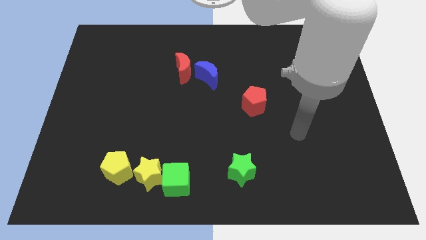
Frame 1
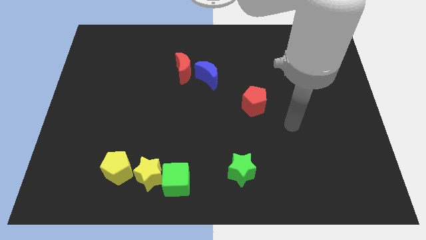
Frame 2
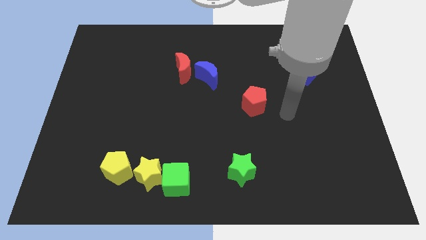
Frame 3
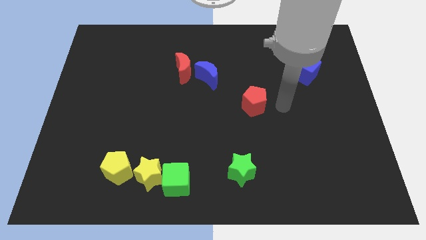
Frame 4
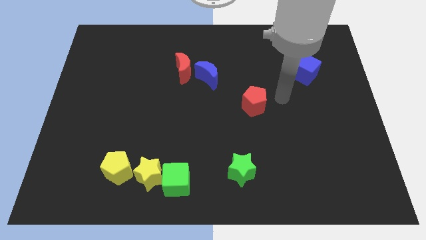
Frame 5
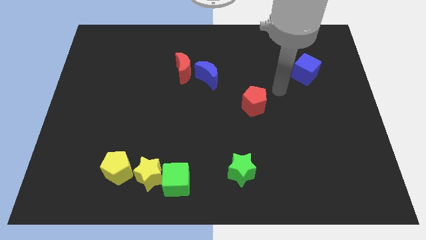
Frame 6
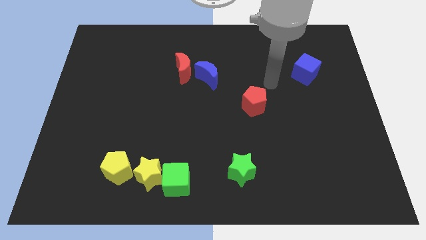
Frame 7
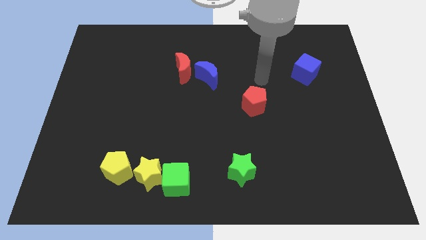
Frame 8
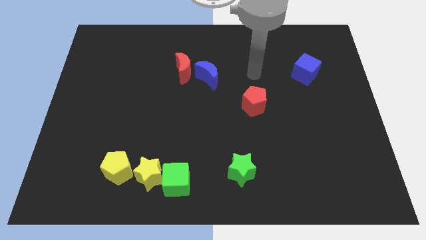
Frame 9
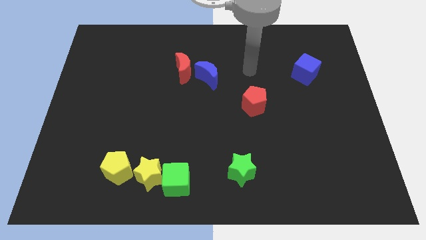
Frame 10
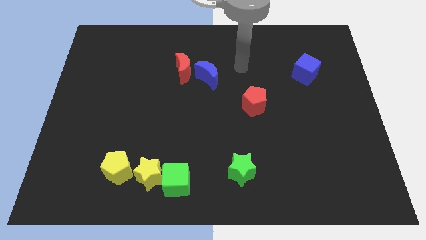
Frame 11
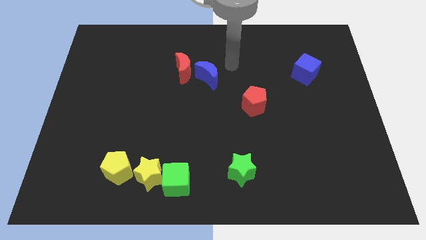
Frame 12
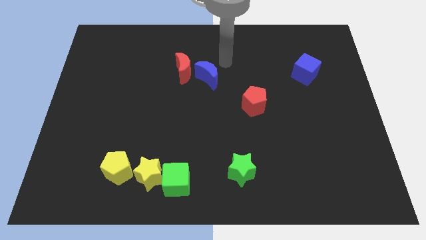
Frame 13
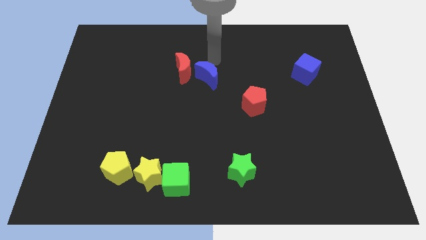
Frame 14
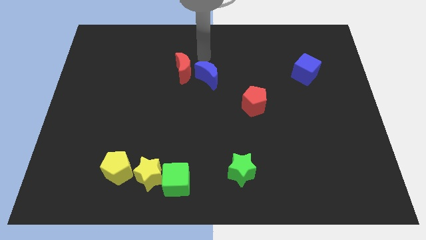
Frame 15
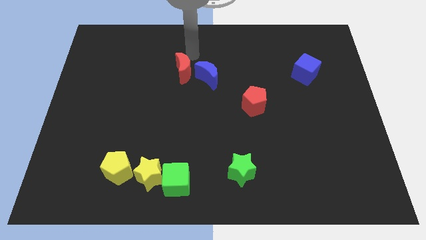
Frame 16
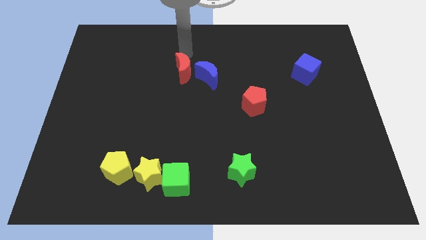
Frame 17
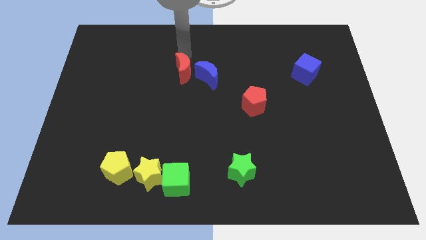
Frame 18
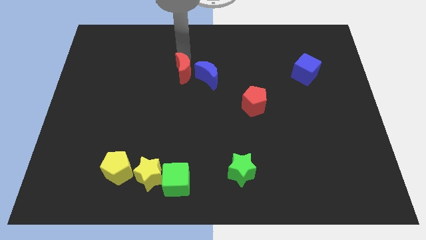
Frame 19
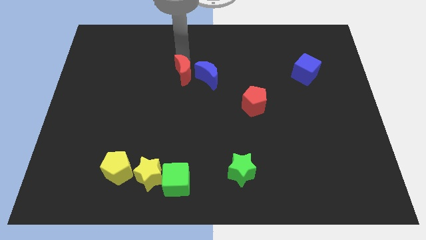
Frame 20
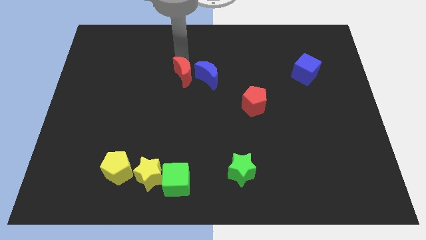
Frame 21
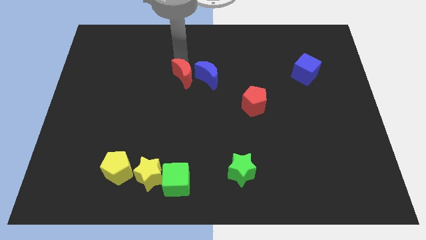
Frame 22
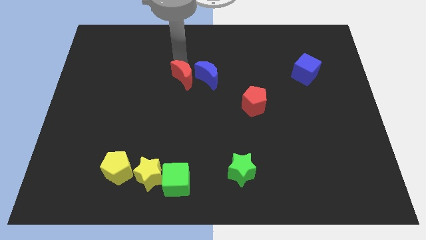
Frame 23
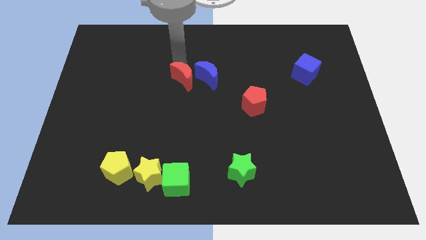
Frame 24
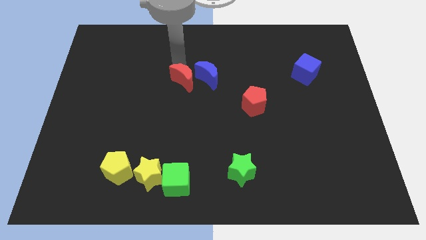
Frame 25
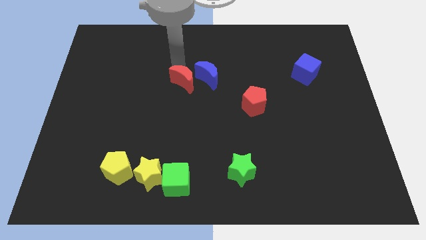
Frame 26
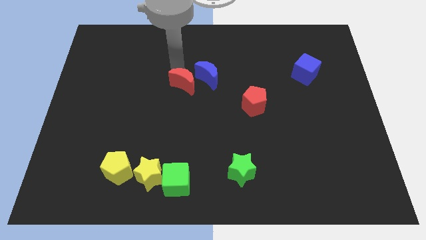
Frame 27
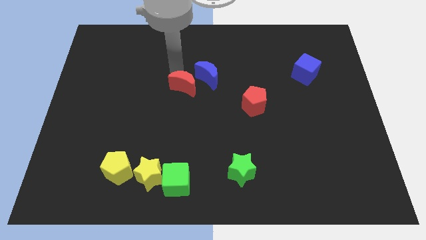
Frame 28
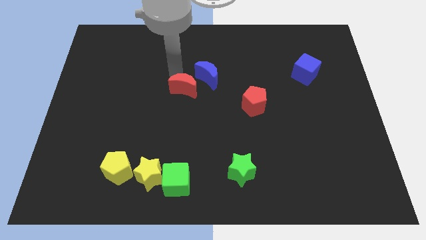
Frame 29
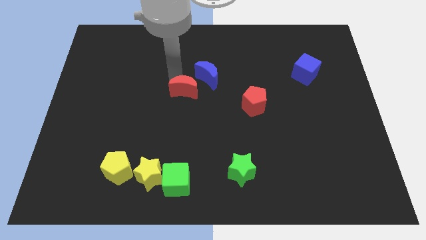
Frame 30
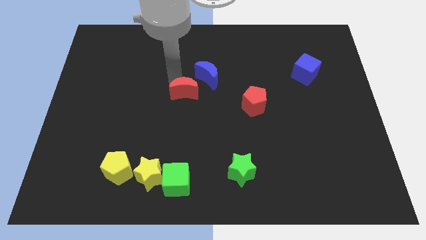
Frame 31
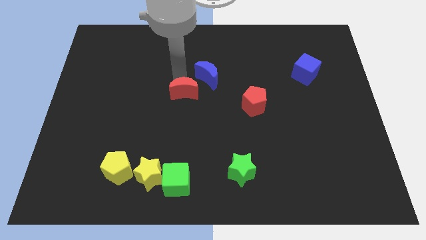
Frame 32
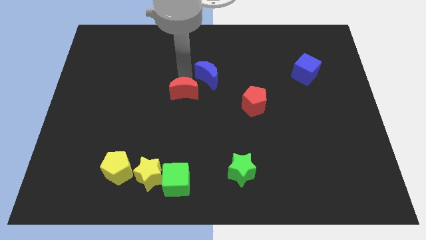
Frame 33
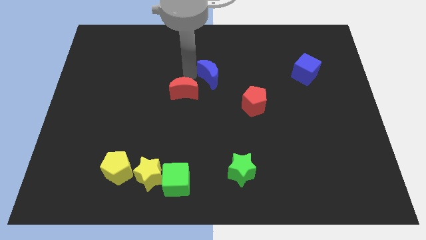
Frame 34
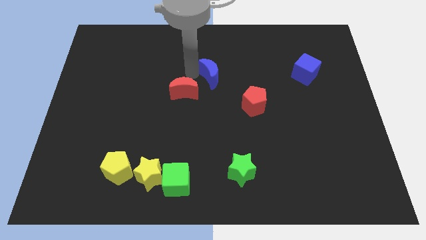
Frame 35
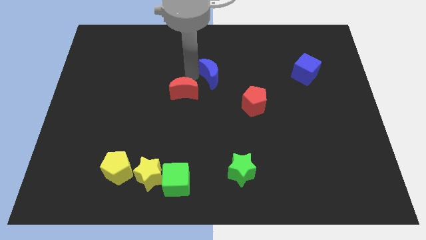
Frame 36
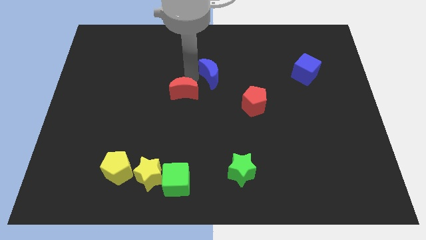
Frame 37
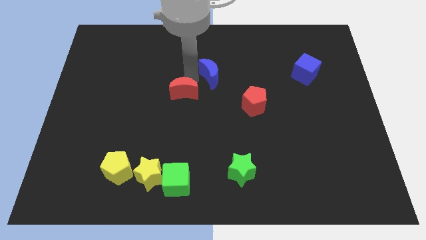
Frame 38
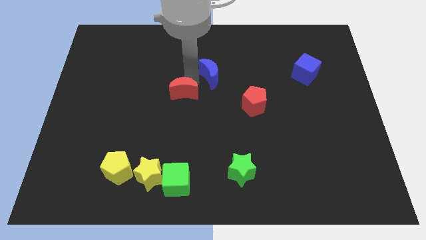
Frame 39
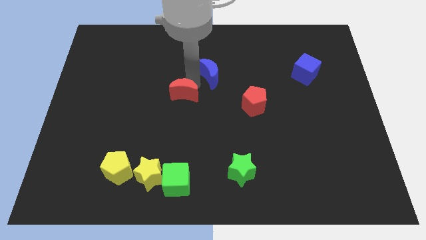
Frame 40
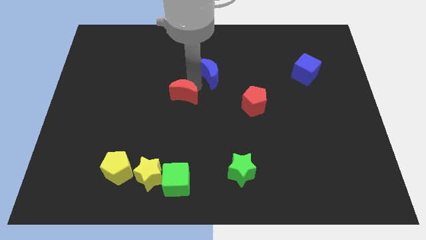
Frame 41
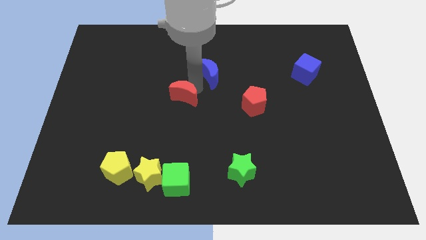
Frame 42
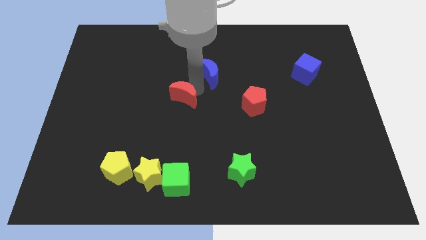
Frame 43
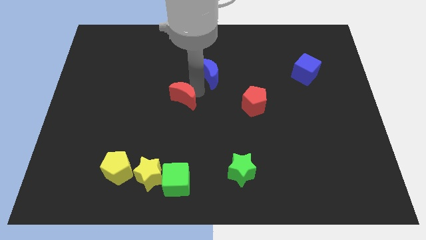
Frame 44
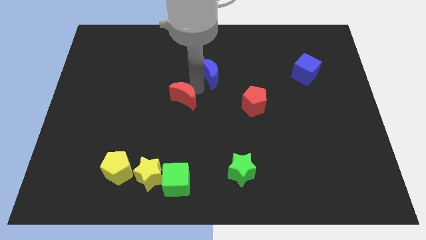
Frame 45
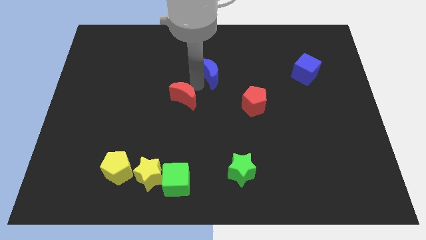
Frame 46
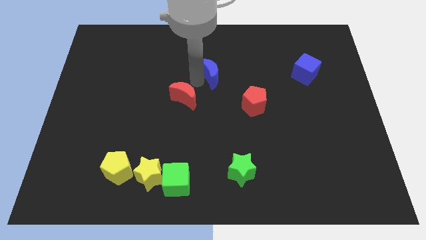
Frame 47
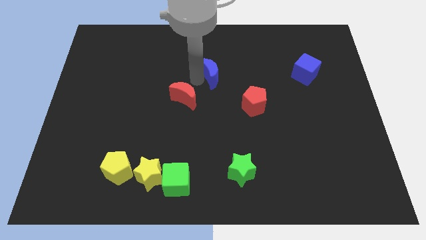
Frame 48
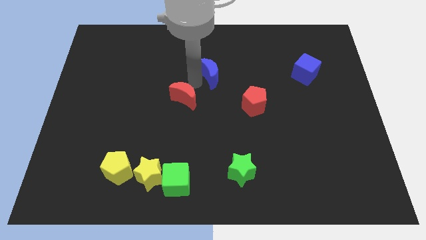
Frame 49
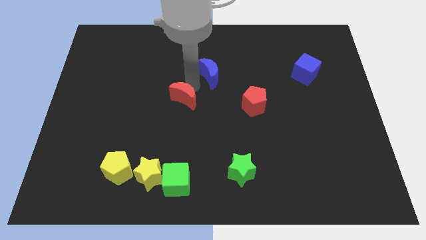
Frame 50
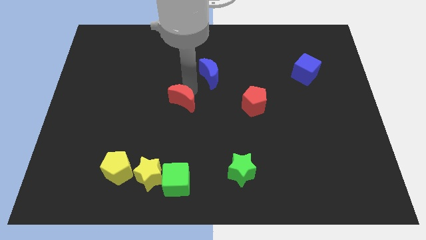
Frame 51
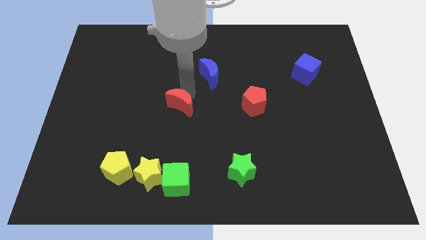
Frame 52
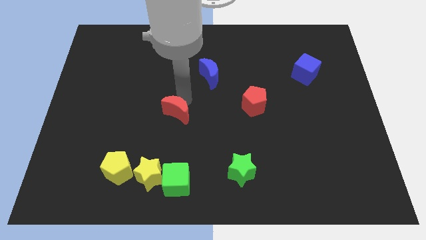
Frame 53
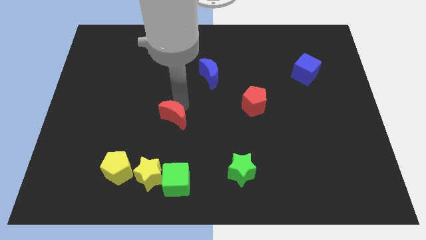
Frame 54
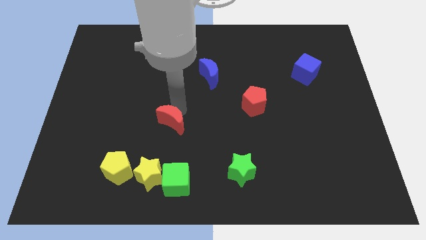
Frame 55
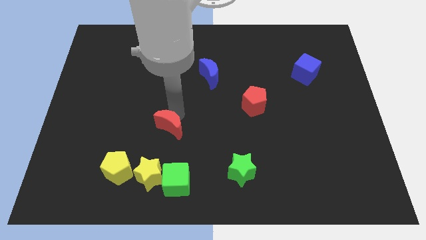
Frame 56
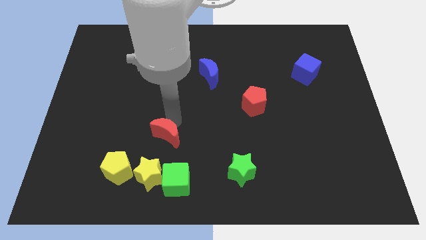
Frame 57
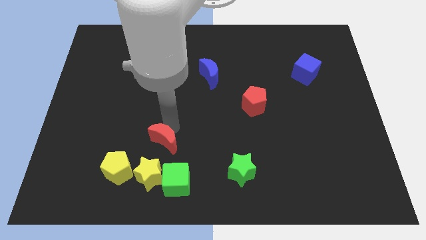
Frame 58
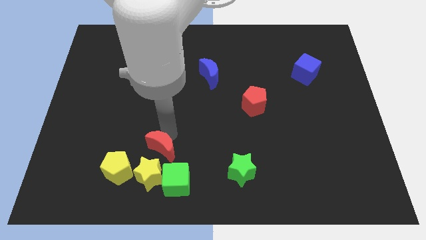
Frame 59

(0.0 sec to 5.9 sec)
slide the red moon to the top left of the green cube

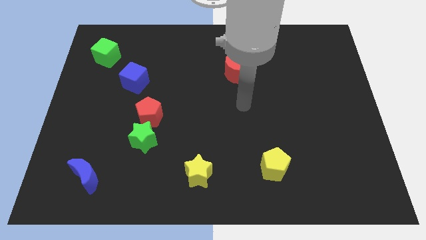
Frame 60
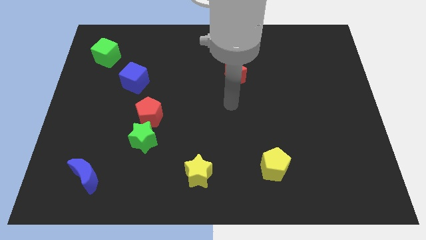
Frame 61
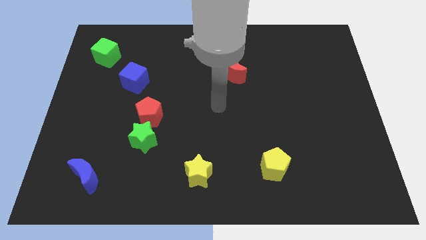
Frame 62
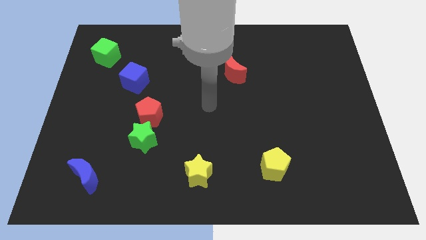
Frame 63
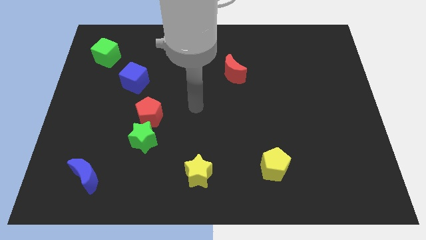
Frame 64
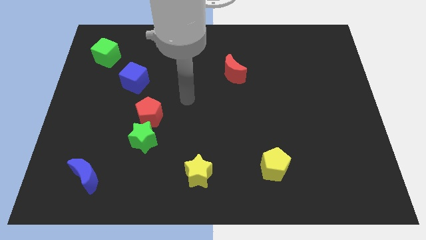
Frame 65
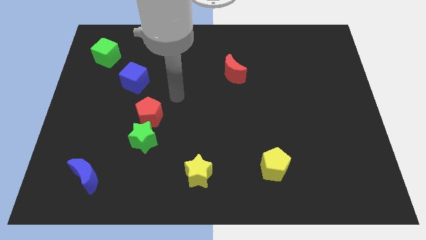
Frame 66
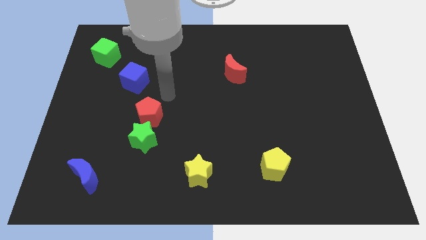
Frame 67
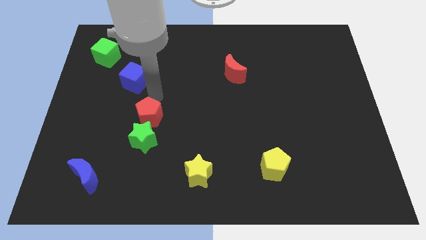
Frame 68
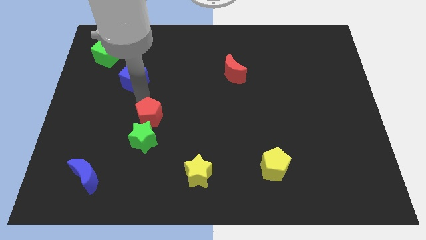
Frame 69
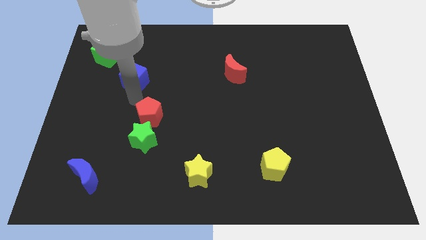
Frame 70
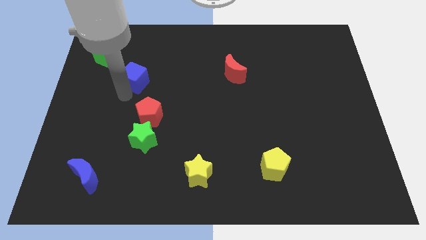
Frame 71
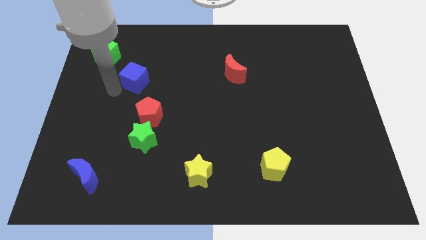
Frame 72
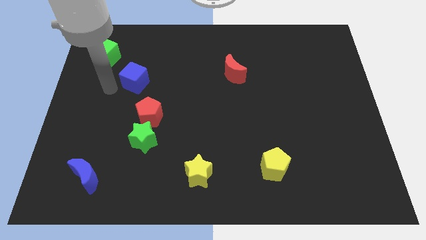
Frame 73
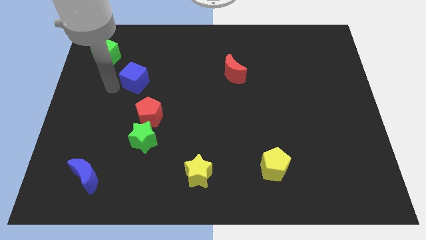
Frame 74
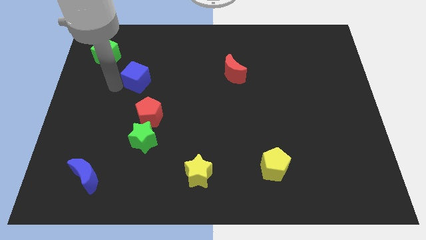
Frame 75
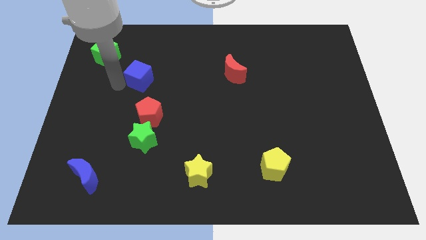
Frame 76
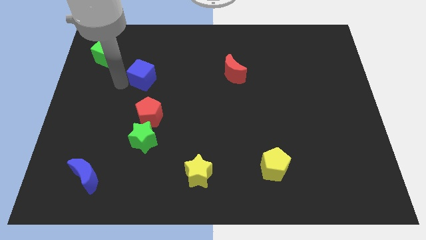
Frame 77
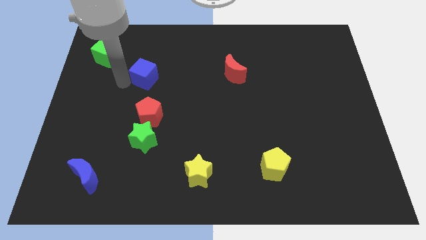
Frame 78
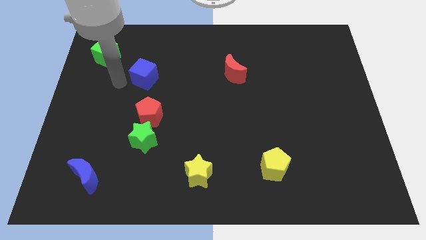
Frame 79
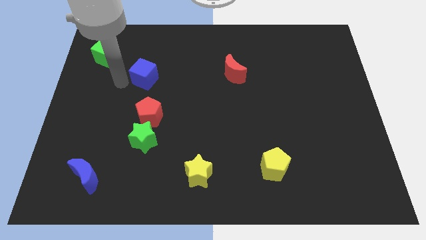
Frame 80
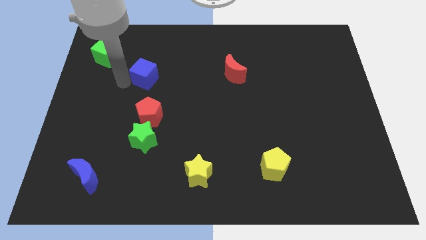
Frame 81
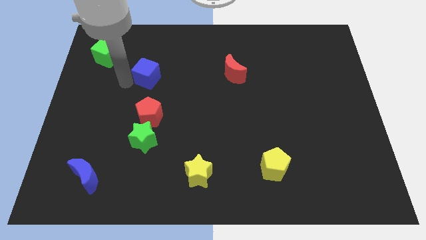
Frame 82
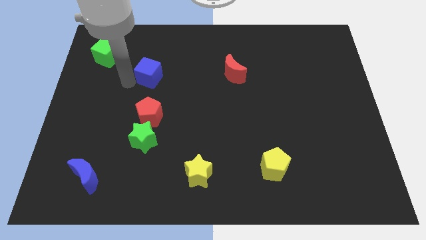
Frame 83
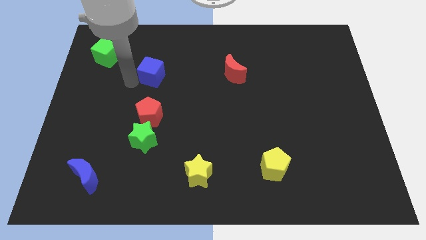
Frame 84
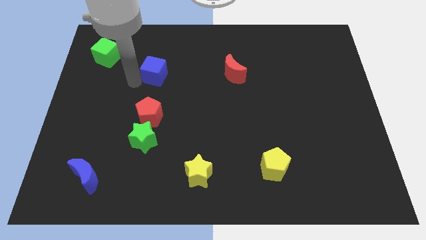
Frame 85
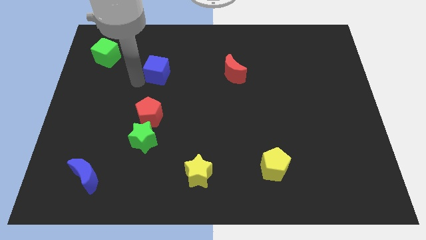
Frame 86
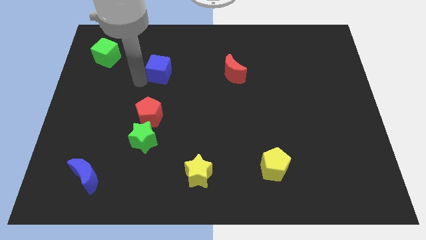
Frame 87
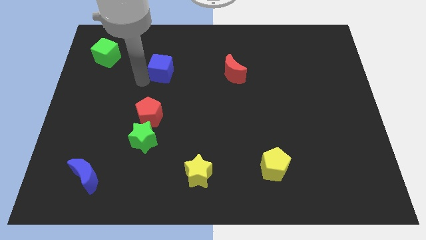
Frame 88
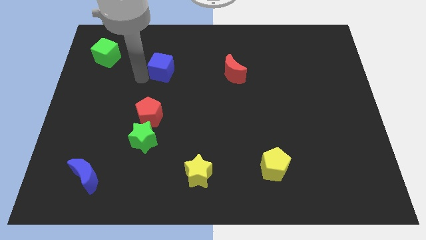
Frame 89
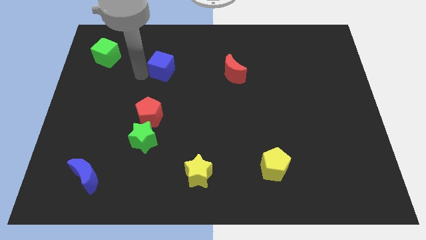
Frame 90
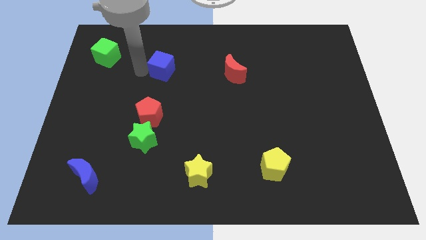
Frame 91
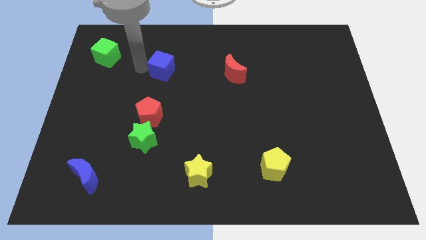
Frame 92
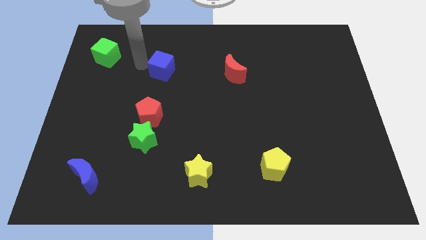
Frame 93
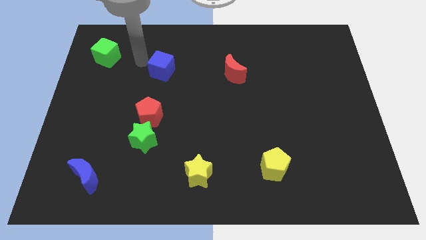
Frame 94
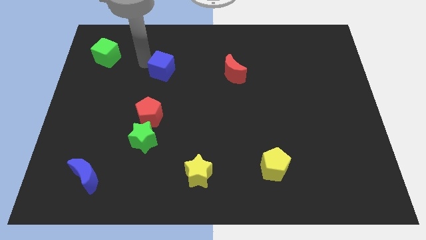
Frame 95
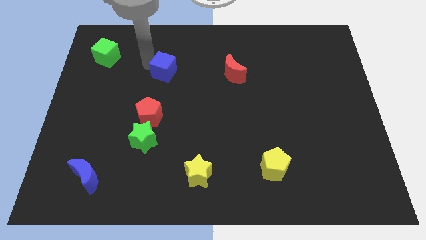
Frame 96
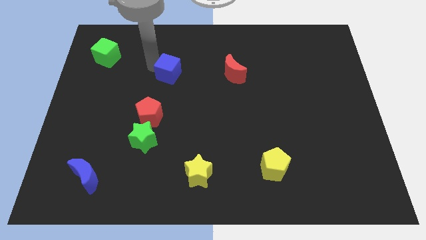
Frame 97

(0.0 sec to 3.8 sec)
put the blue cube to the left side of the red moon
